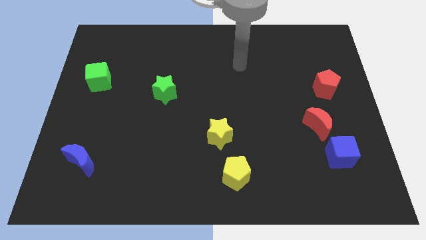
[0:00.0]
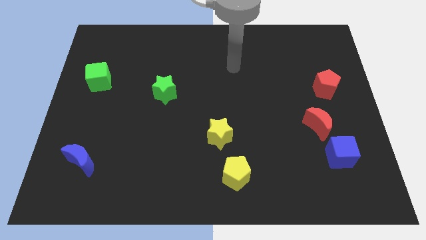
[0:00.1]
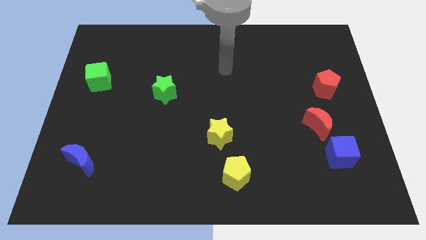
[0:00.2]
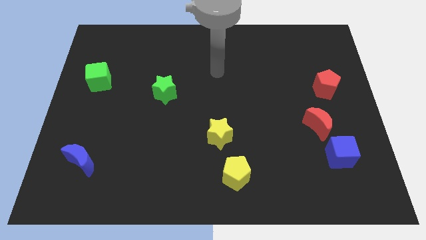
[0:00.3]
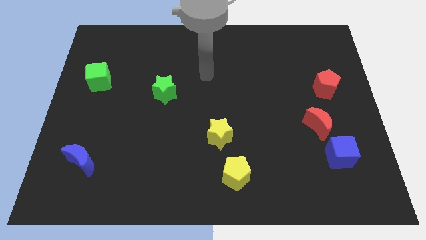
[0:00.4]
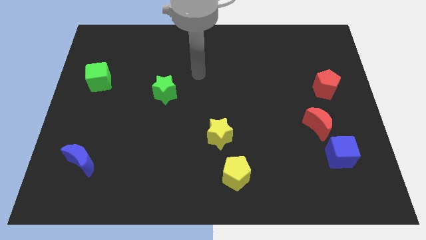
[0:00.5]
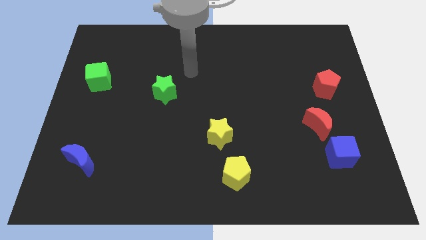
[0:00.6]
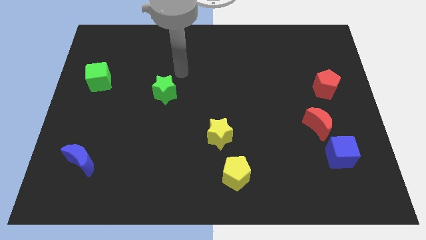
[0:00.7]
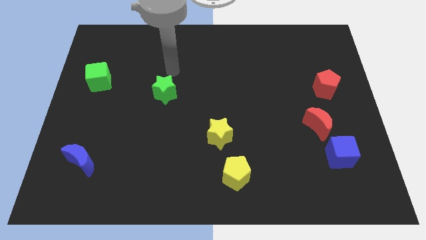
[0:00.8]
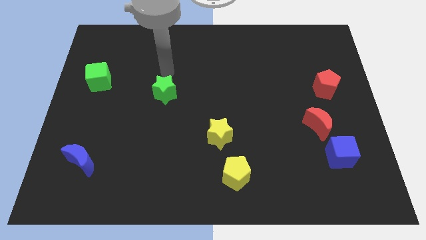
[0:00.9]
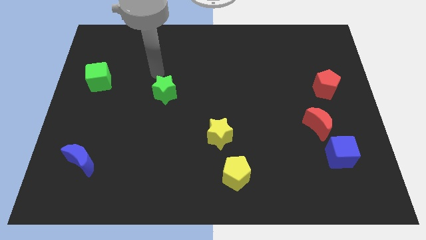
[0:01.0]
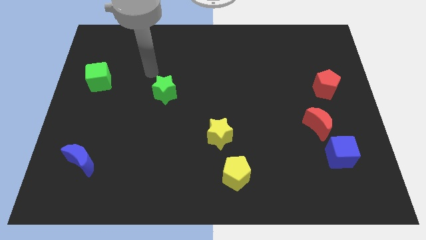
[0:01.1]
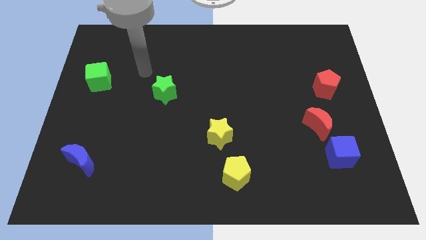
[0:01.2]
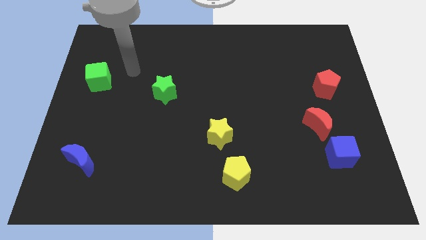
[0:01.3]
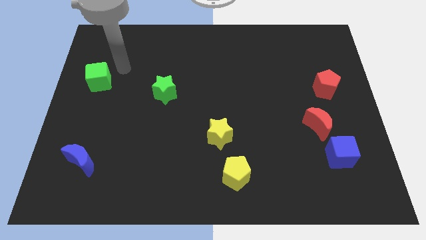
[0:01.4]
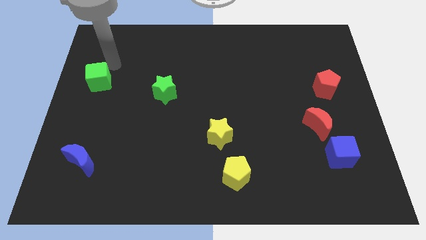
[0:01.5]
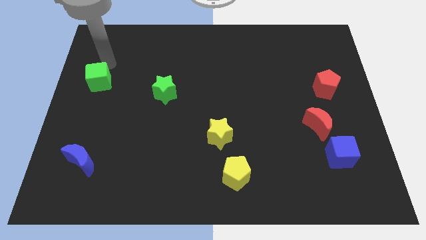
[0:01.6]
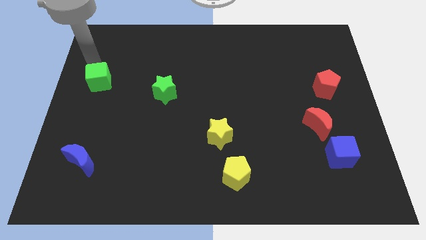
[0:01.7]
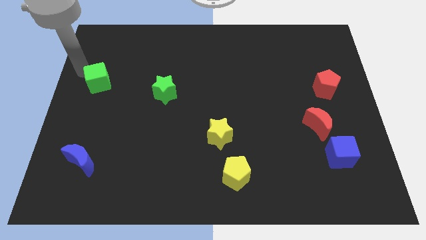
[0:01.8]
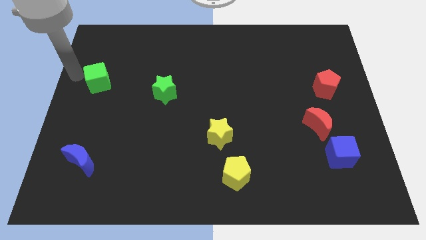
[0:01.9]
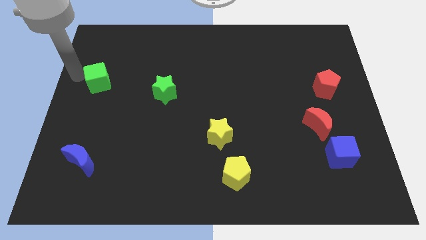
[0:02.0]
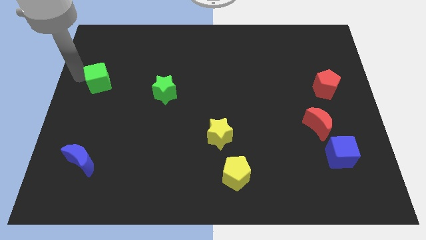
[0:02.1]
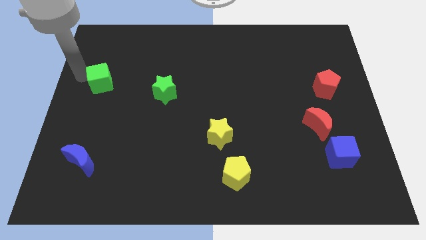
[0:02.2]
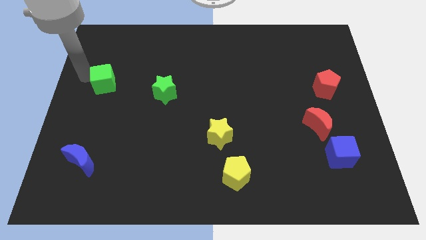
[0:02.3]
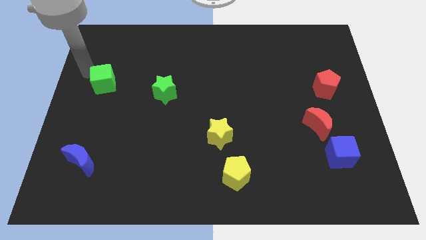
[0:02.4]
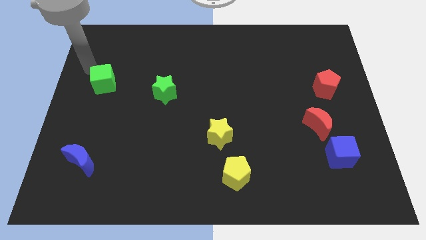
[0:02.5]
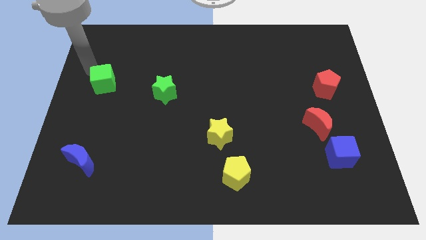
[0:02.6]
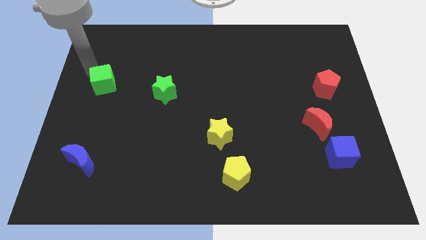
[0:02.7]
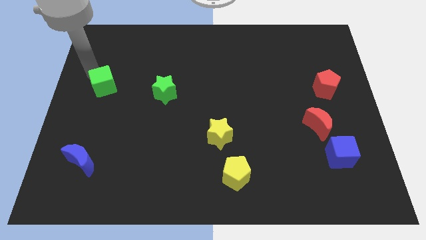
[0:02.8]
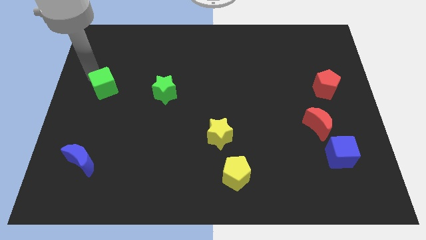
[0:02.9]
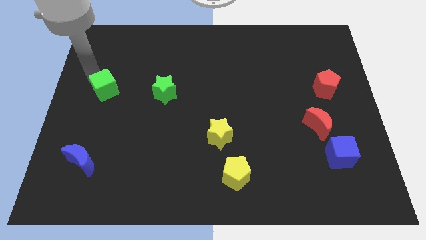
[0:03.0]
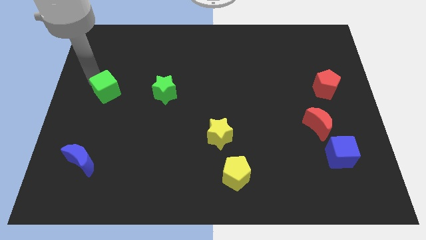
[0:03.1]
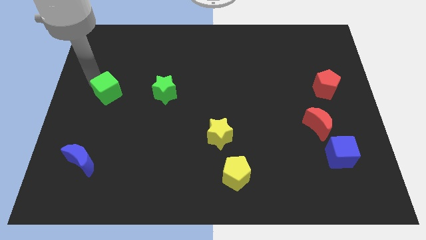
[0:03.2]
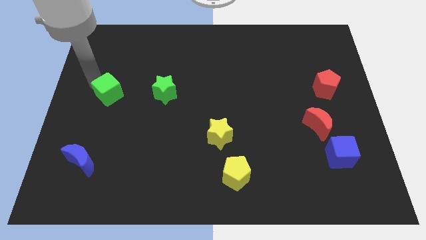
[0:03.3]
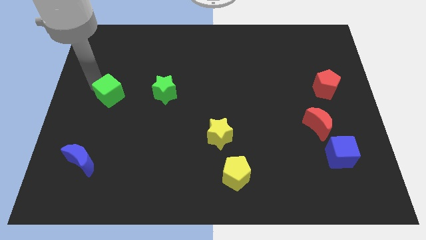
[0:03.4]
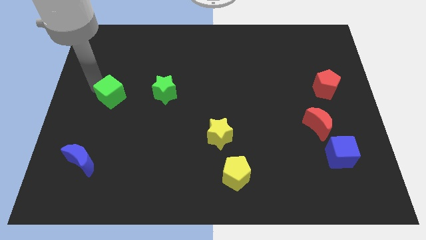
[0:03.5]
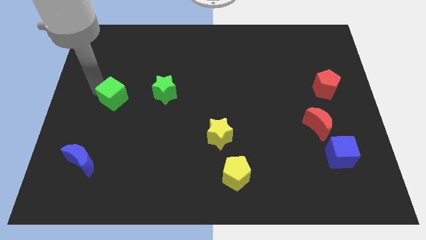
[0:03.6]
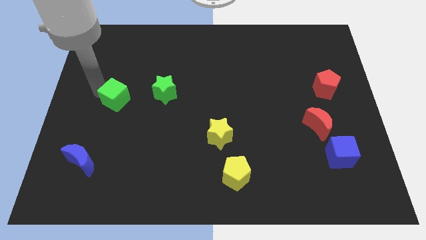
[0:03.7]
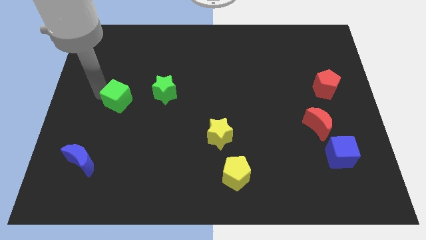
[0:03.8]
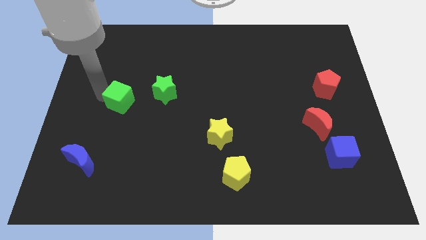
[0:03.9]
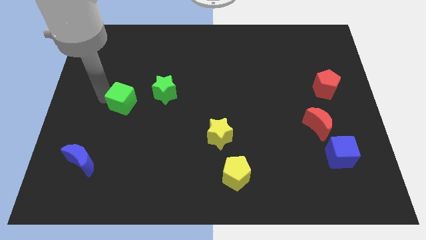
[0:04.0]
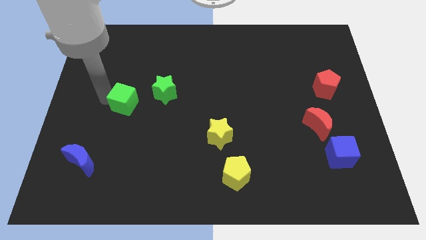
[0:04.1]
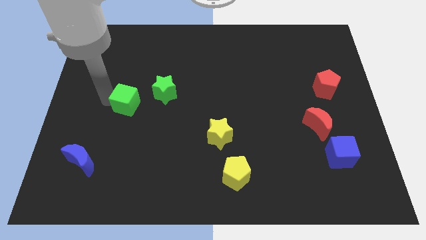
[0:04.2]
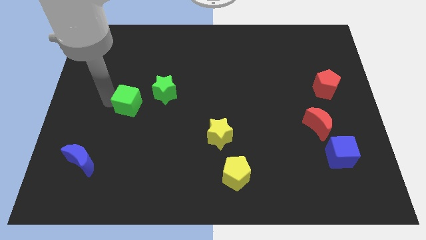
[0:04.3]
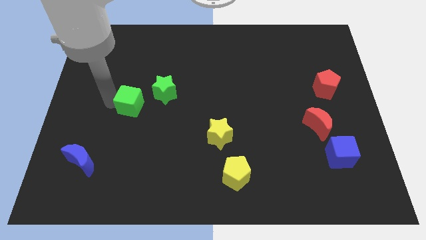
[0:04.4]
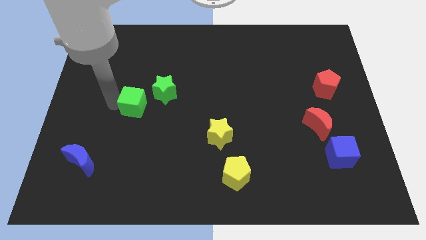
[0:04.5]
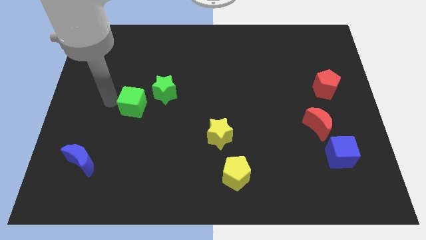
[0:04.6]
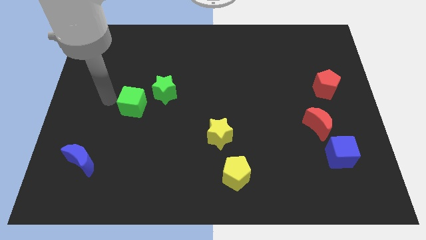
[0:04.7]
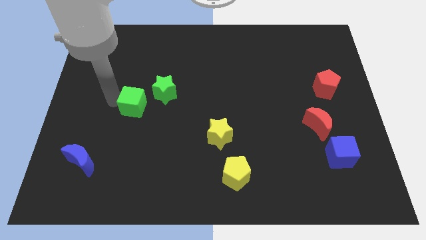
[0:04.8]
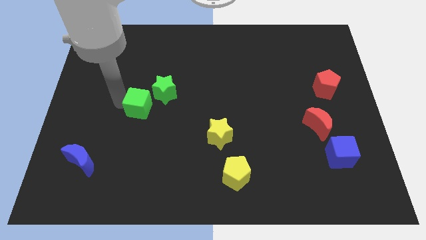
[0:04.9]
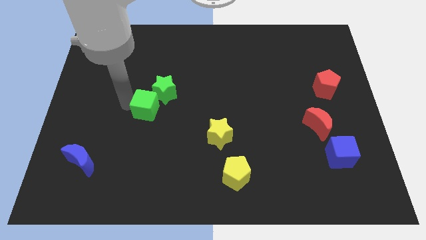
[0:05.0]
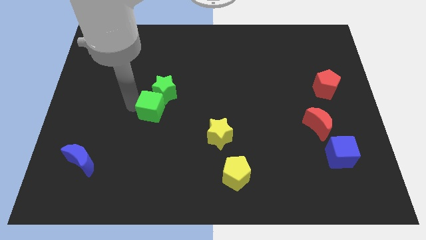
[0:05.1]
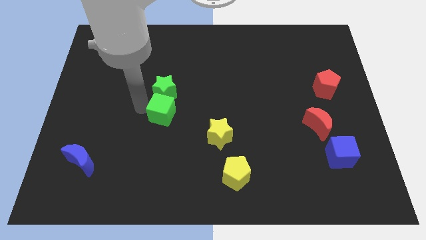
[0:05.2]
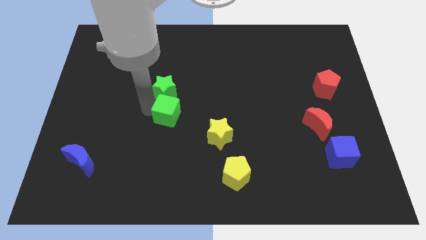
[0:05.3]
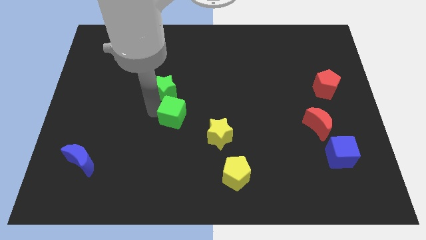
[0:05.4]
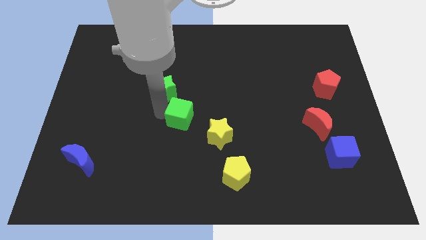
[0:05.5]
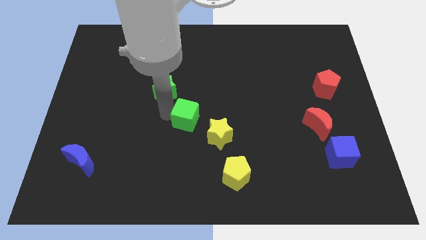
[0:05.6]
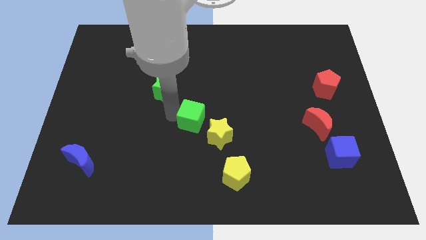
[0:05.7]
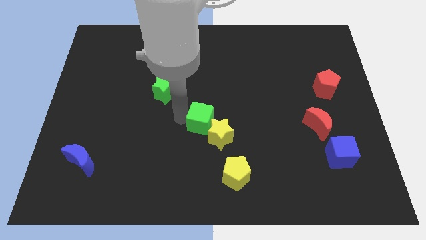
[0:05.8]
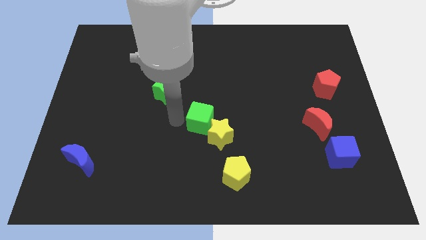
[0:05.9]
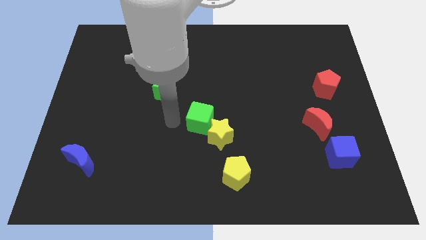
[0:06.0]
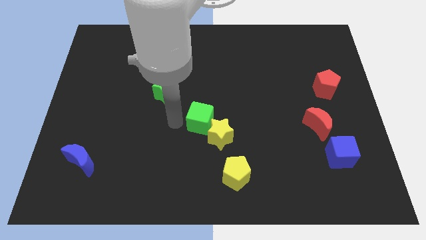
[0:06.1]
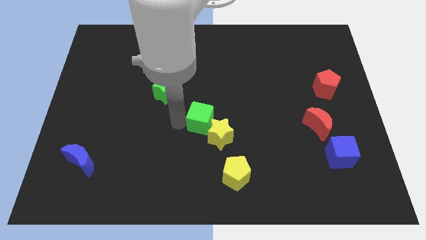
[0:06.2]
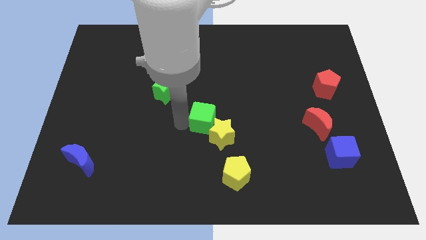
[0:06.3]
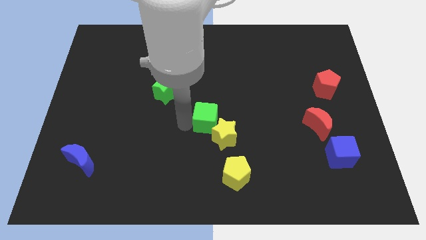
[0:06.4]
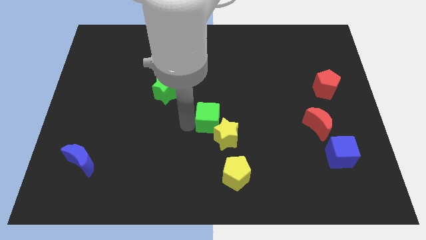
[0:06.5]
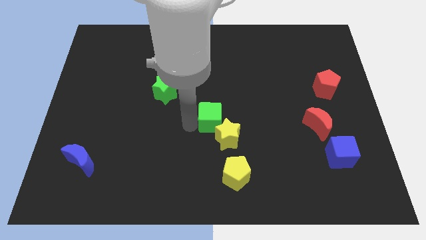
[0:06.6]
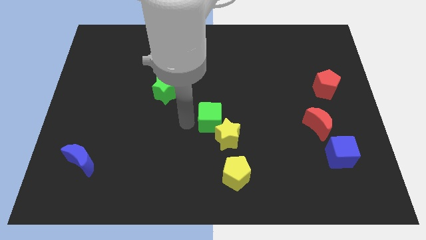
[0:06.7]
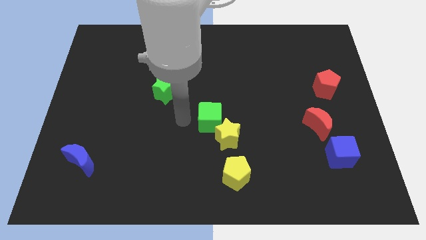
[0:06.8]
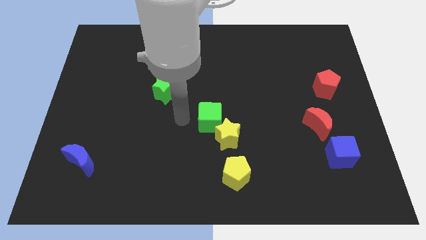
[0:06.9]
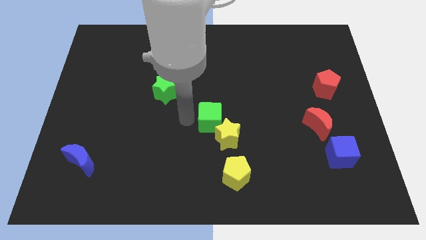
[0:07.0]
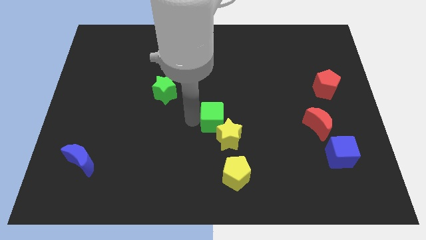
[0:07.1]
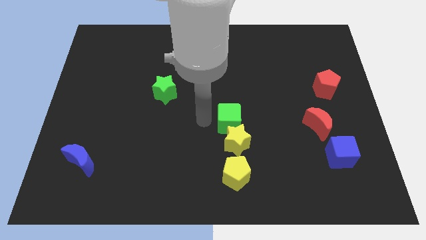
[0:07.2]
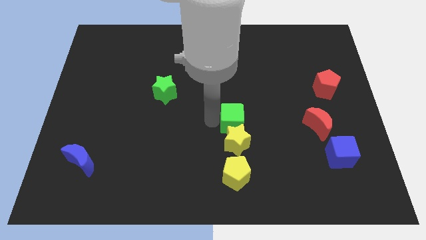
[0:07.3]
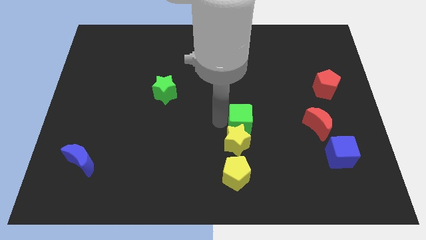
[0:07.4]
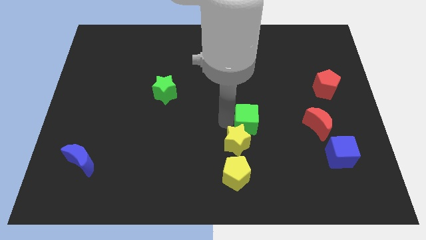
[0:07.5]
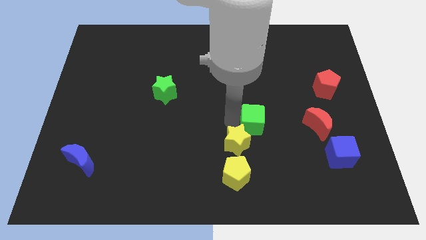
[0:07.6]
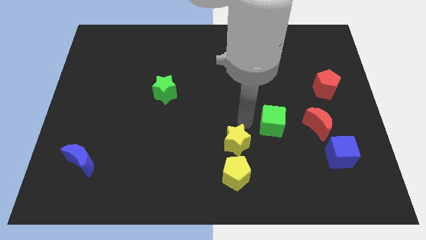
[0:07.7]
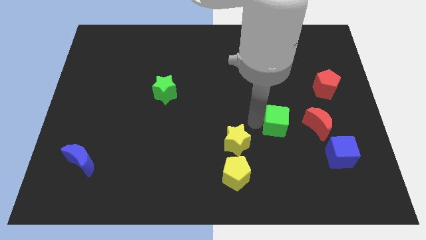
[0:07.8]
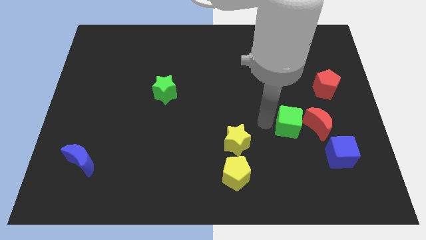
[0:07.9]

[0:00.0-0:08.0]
push the green cube diagonally up and to the left of the blue cube
